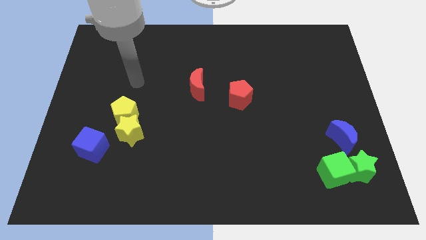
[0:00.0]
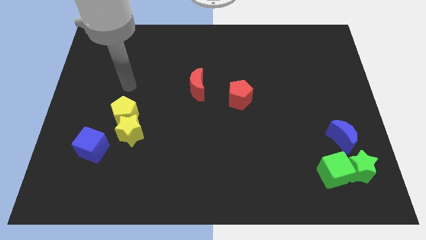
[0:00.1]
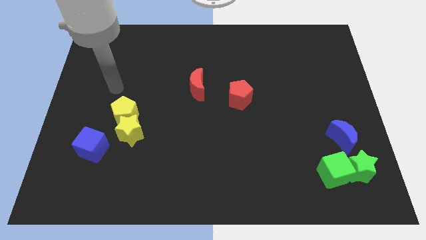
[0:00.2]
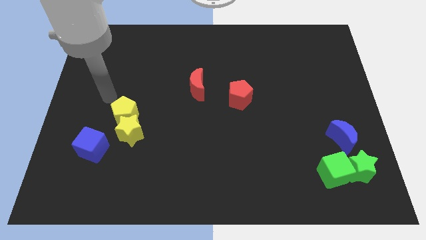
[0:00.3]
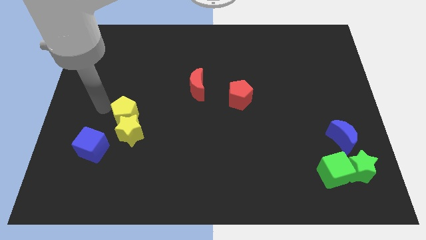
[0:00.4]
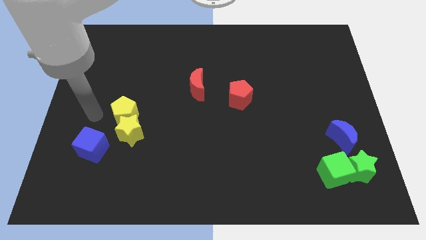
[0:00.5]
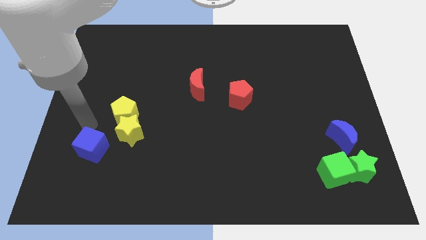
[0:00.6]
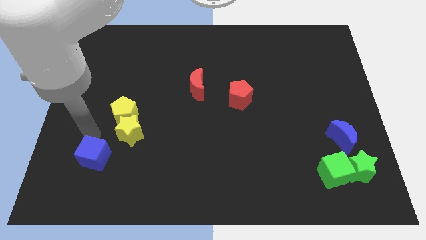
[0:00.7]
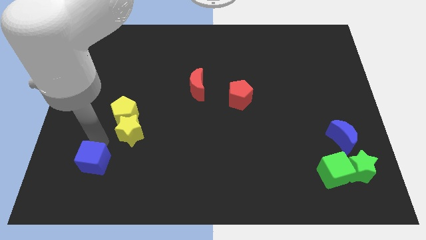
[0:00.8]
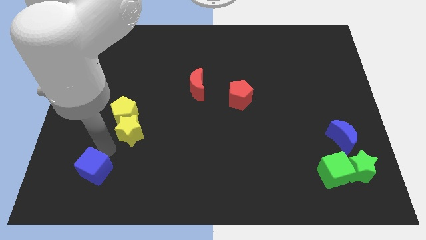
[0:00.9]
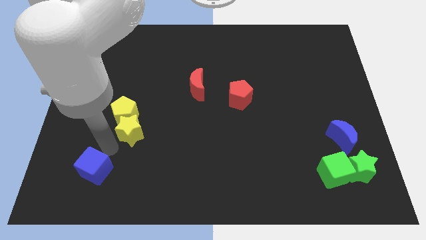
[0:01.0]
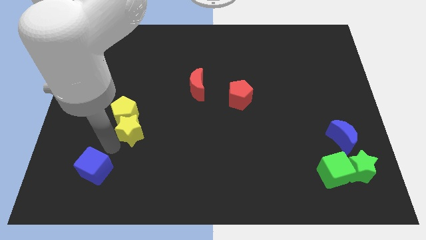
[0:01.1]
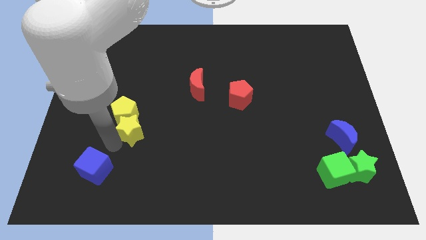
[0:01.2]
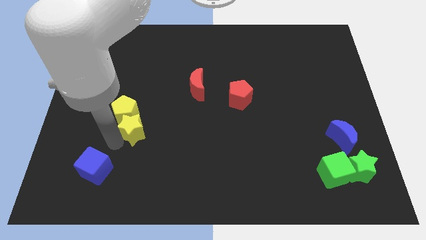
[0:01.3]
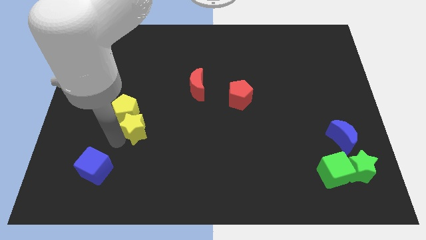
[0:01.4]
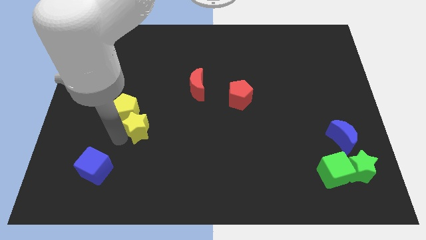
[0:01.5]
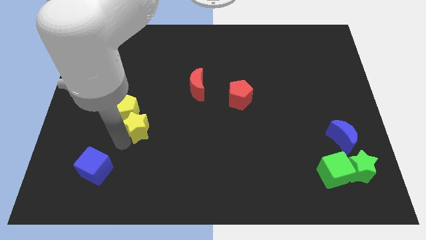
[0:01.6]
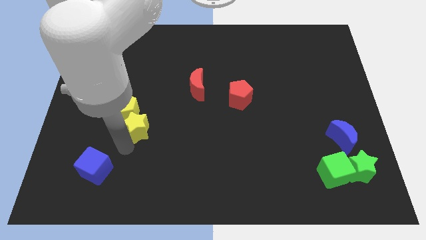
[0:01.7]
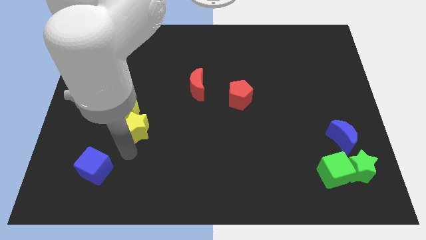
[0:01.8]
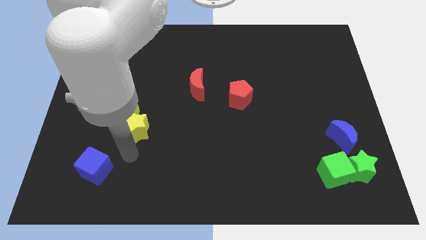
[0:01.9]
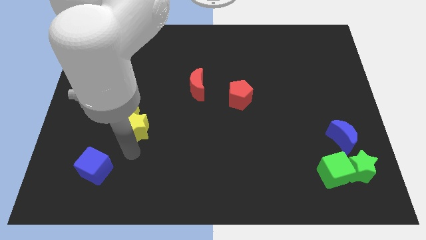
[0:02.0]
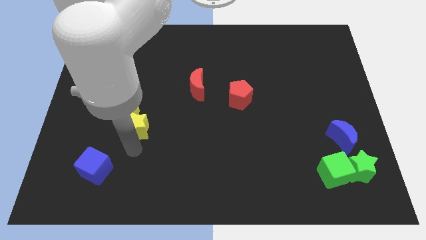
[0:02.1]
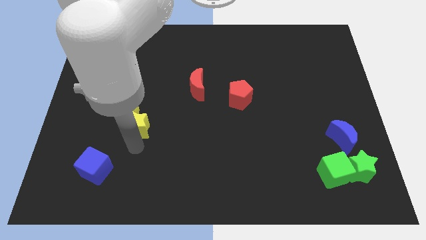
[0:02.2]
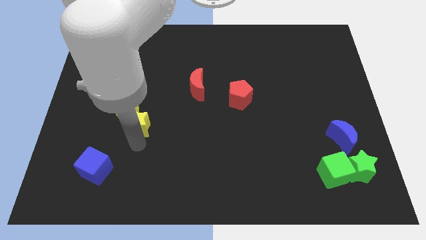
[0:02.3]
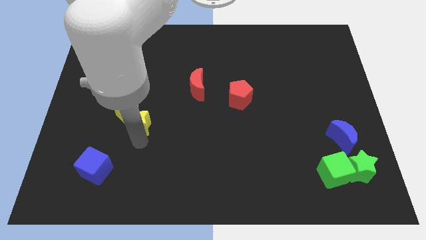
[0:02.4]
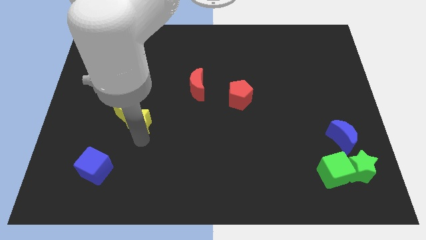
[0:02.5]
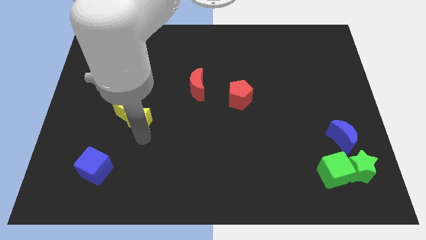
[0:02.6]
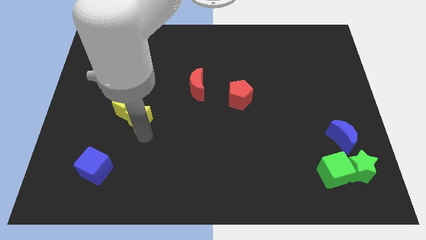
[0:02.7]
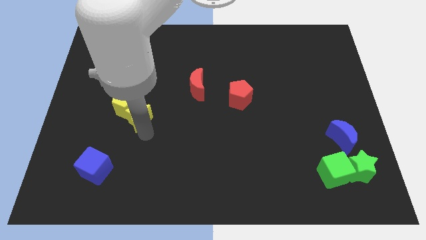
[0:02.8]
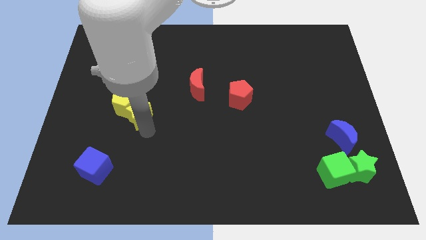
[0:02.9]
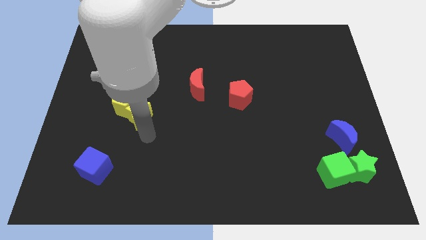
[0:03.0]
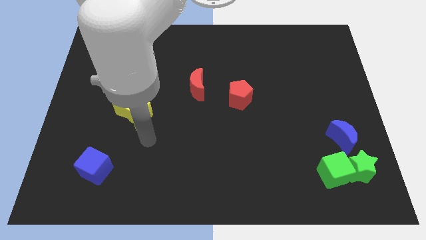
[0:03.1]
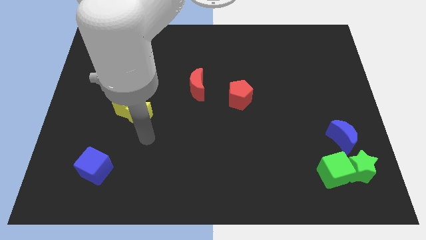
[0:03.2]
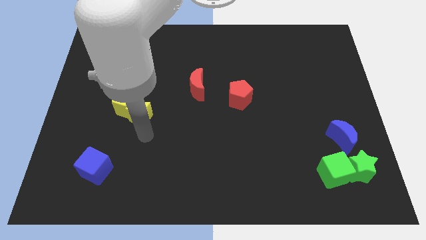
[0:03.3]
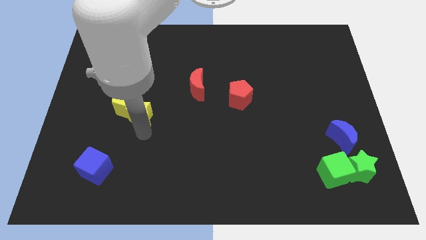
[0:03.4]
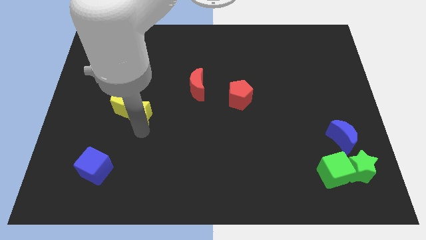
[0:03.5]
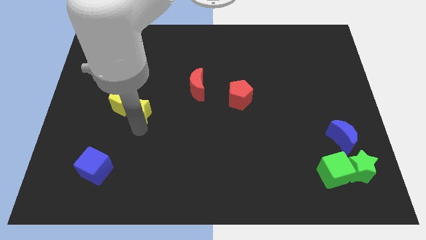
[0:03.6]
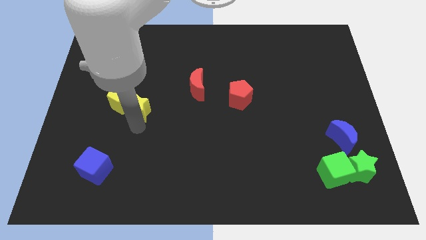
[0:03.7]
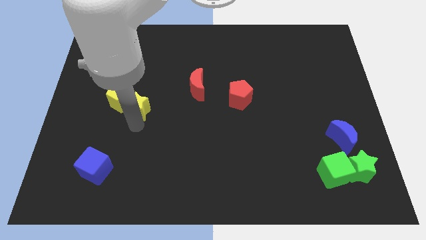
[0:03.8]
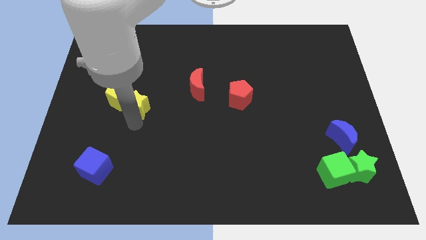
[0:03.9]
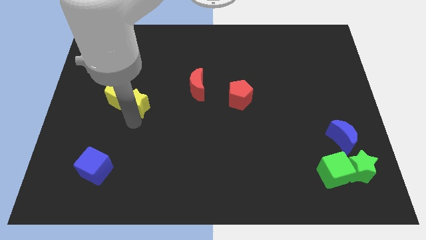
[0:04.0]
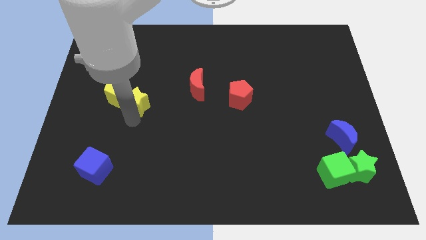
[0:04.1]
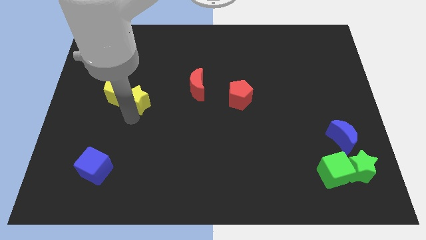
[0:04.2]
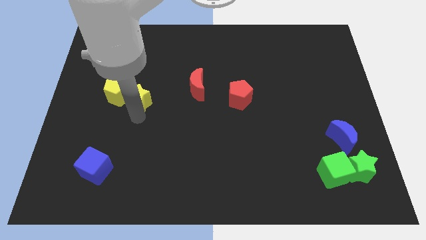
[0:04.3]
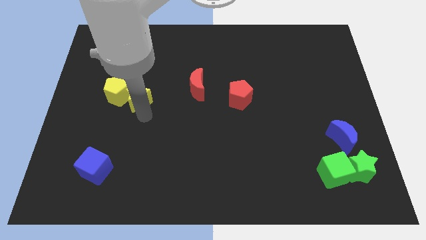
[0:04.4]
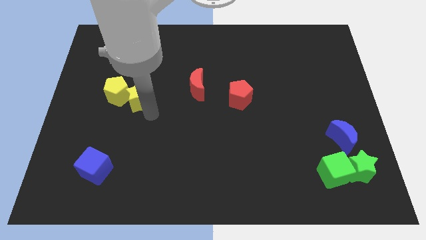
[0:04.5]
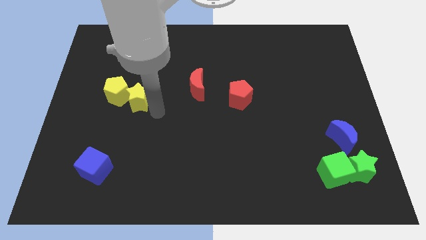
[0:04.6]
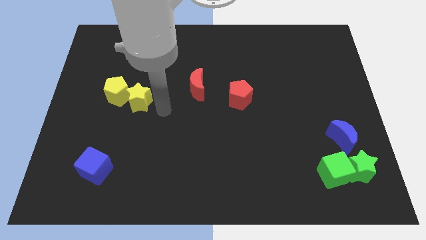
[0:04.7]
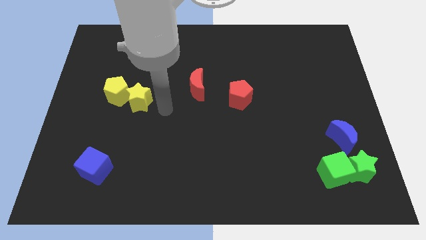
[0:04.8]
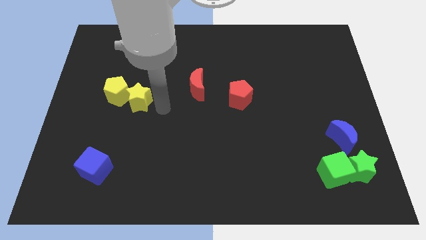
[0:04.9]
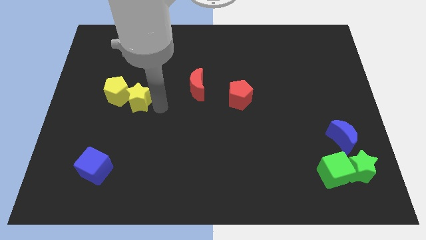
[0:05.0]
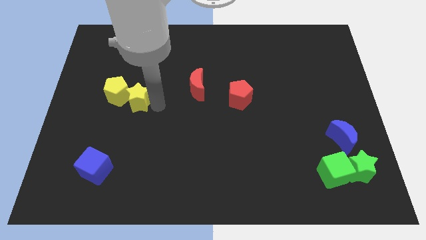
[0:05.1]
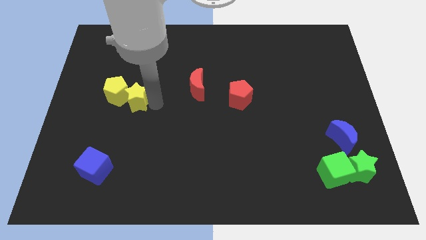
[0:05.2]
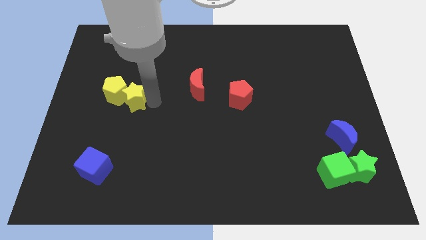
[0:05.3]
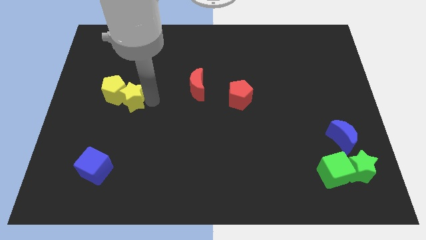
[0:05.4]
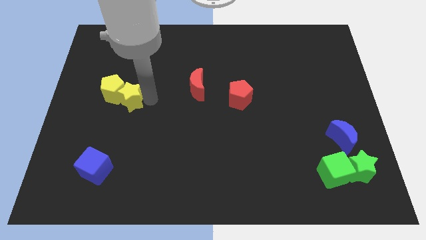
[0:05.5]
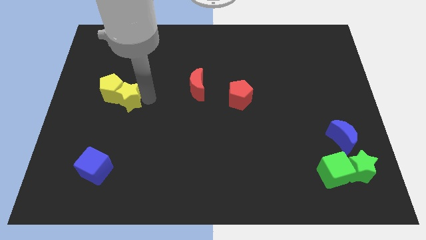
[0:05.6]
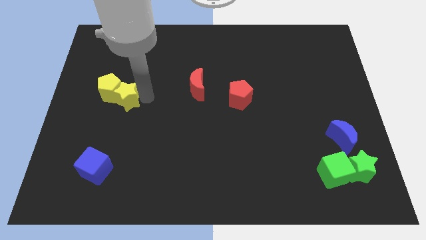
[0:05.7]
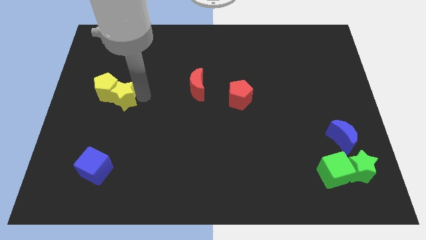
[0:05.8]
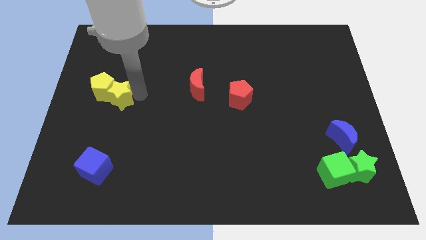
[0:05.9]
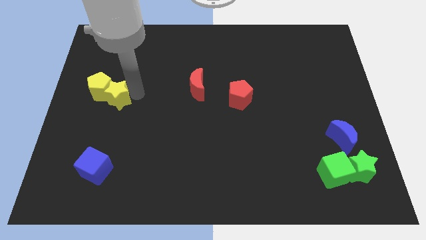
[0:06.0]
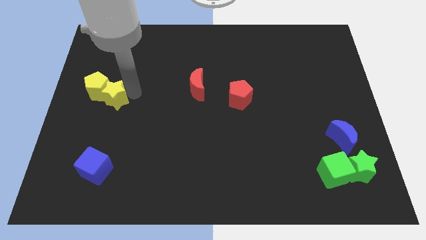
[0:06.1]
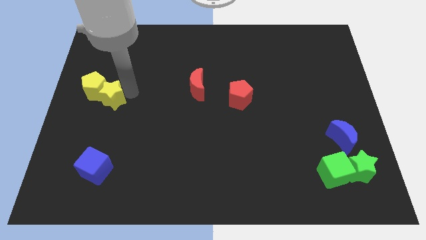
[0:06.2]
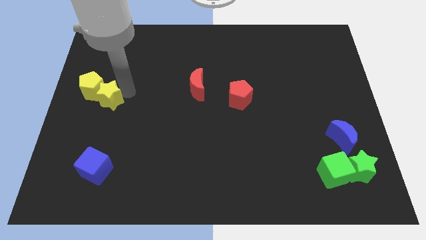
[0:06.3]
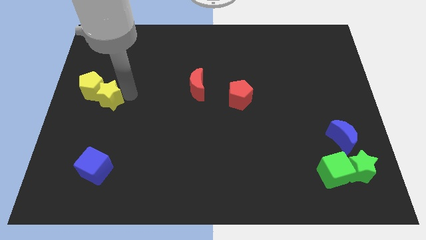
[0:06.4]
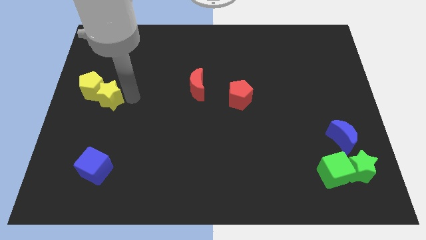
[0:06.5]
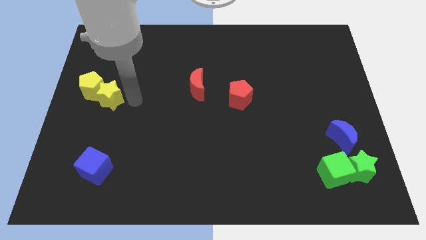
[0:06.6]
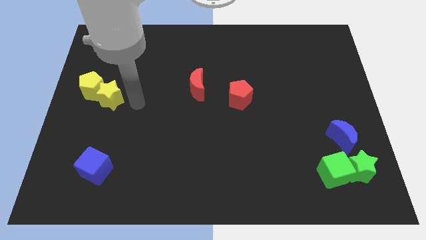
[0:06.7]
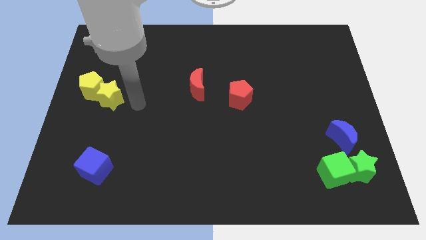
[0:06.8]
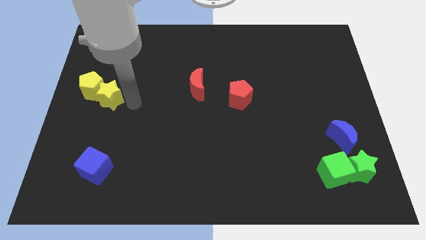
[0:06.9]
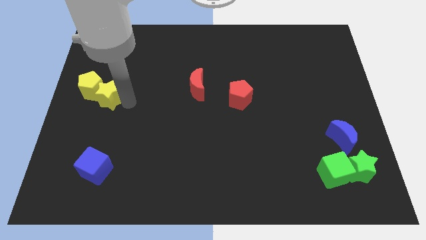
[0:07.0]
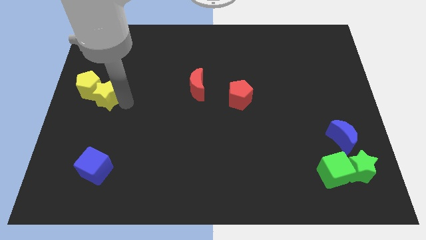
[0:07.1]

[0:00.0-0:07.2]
push the yellow star to the left side
